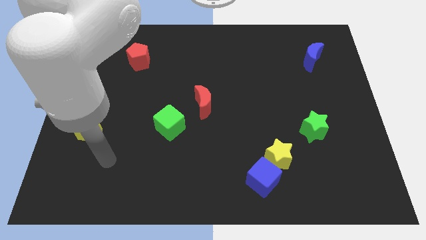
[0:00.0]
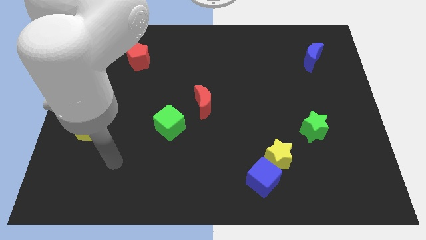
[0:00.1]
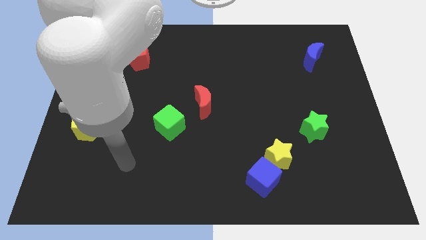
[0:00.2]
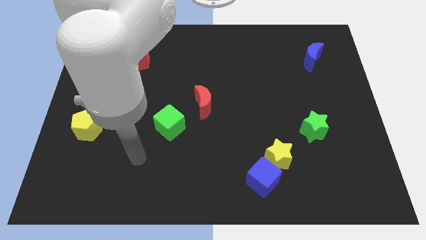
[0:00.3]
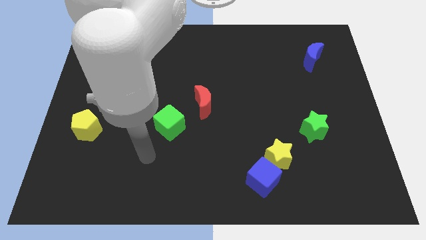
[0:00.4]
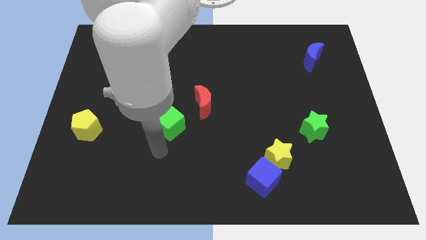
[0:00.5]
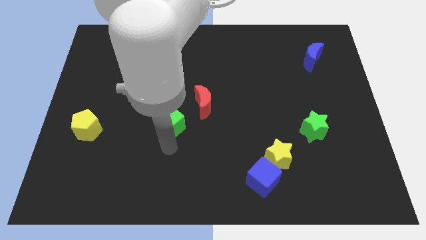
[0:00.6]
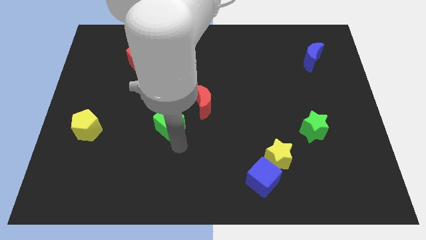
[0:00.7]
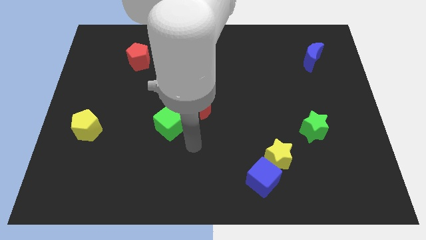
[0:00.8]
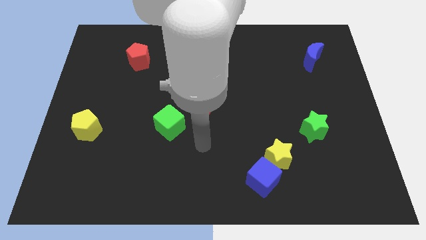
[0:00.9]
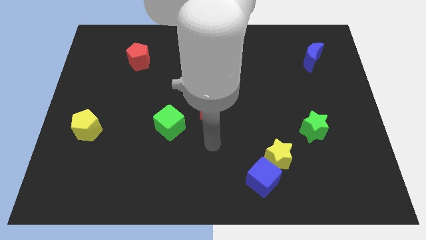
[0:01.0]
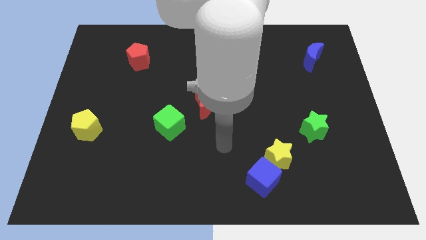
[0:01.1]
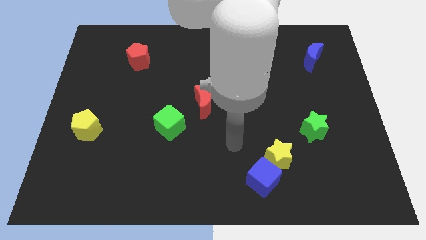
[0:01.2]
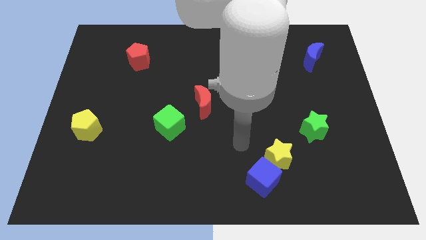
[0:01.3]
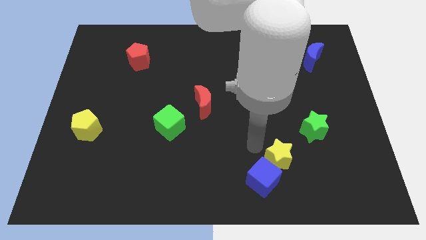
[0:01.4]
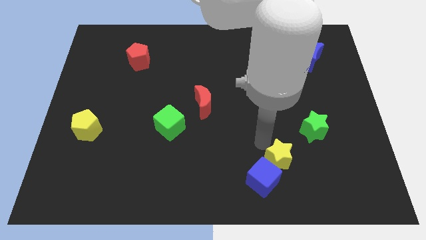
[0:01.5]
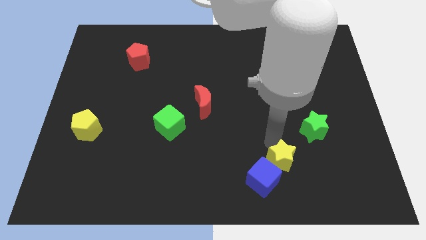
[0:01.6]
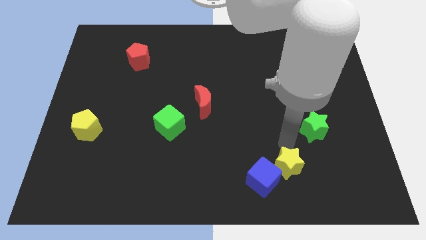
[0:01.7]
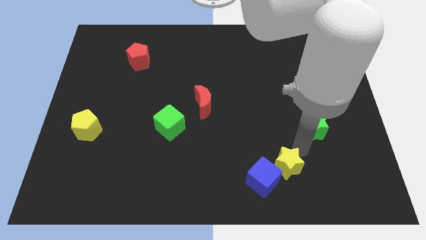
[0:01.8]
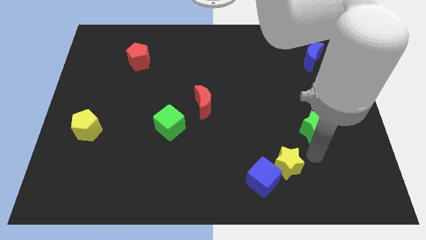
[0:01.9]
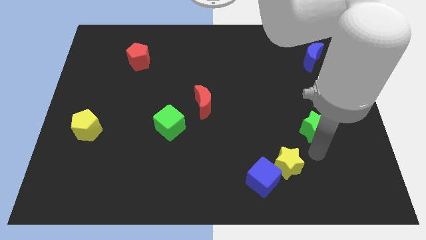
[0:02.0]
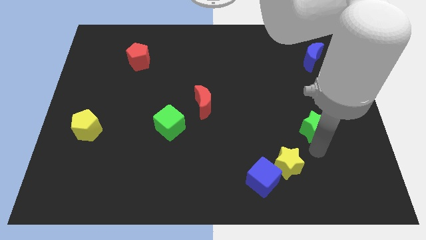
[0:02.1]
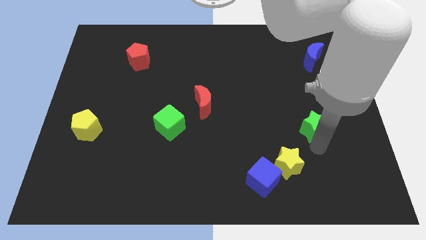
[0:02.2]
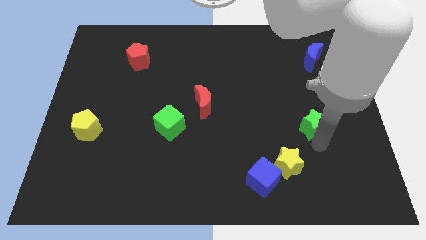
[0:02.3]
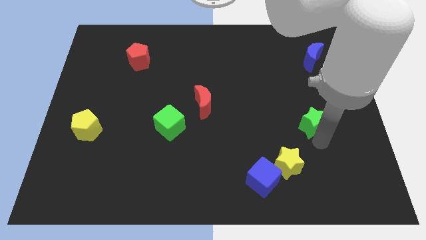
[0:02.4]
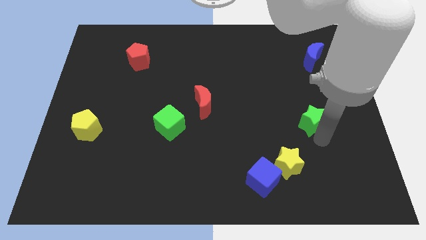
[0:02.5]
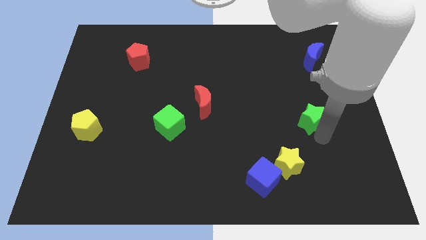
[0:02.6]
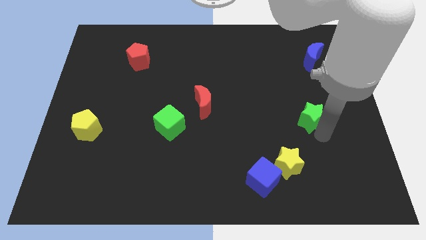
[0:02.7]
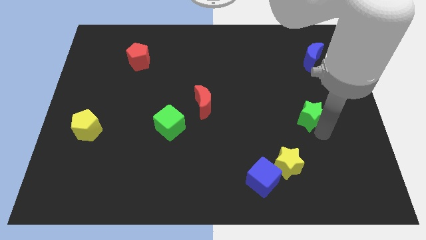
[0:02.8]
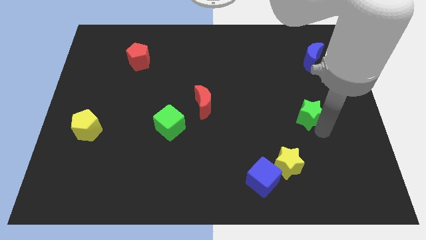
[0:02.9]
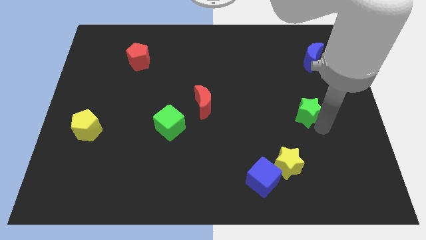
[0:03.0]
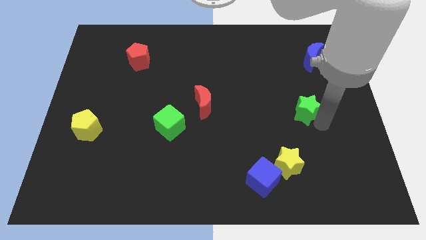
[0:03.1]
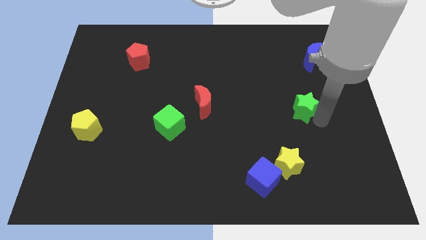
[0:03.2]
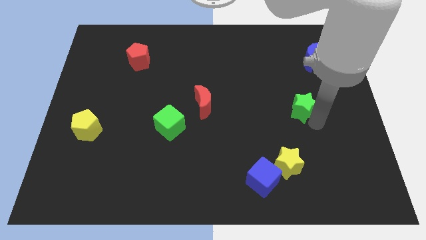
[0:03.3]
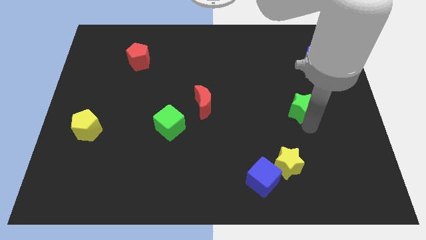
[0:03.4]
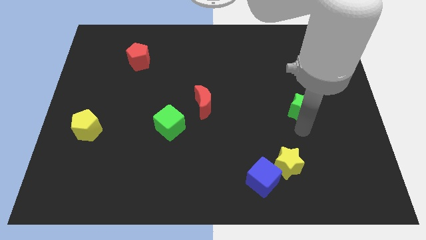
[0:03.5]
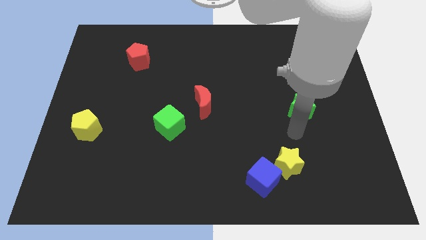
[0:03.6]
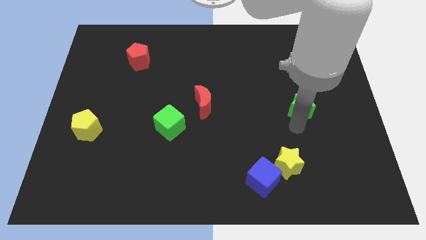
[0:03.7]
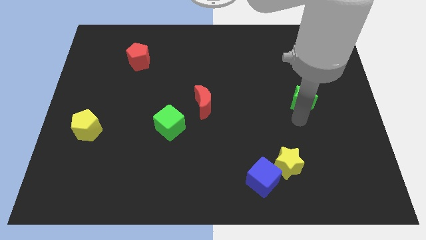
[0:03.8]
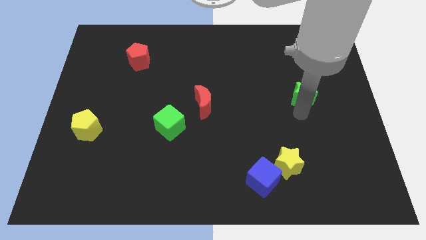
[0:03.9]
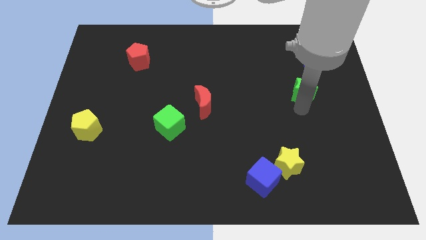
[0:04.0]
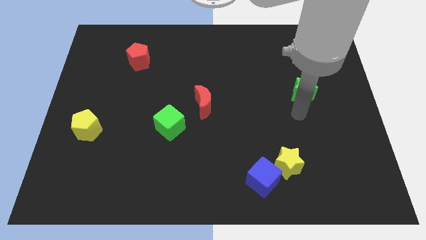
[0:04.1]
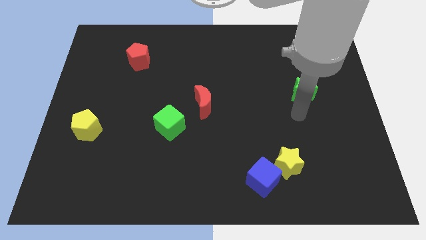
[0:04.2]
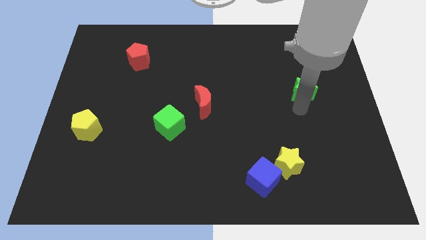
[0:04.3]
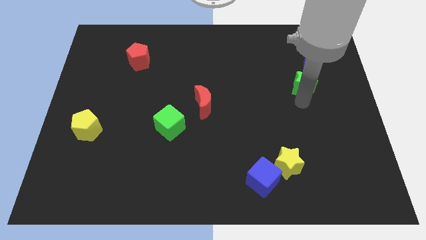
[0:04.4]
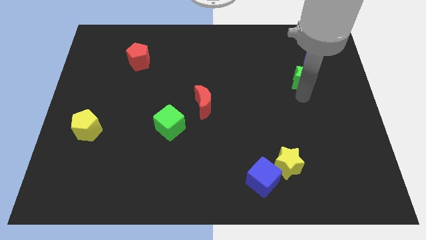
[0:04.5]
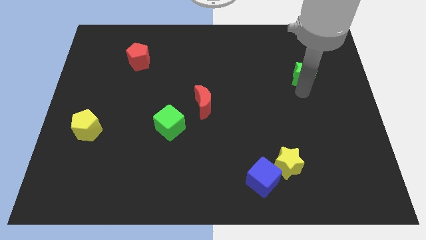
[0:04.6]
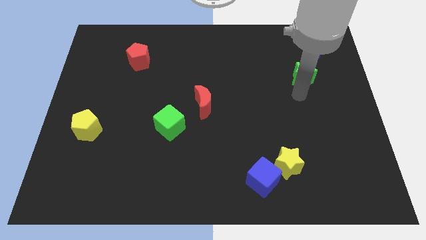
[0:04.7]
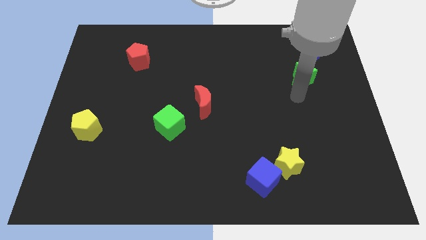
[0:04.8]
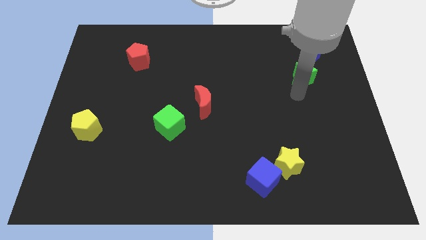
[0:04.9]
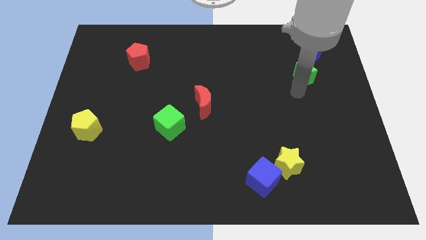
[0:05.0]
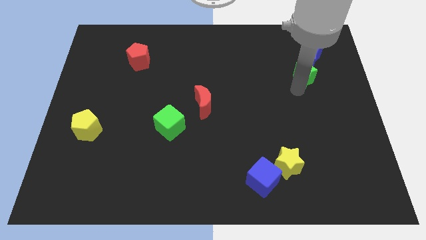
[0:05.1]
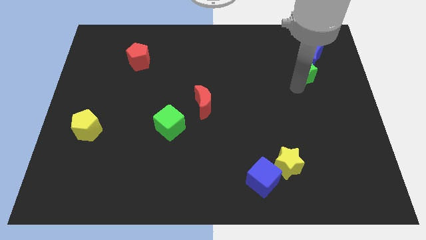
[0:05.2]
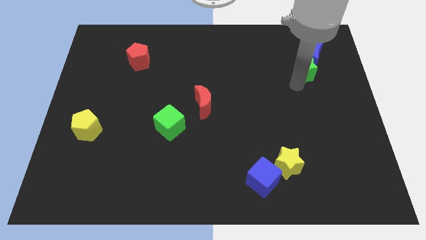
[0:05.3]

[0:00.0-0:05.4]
slide the green star towards the blue moon

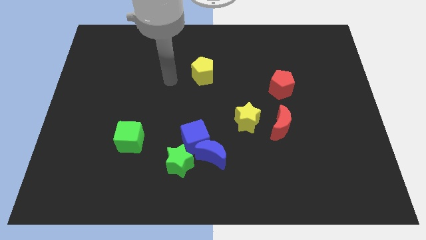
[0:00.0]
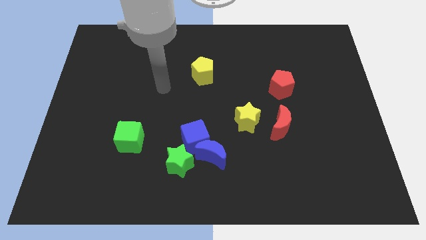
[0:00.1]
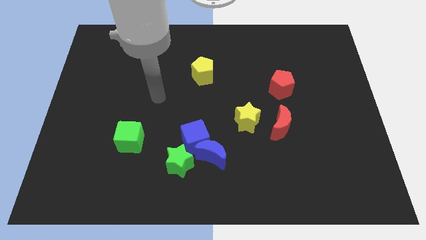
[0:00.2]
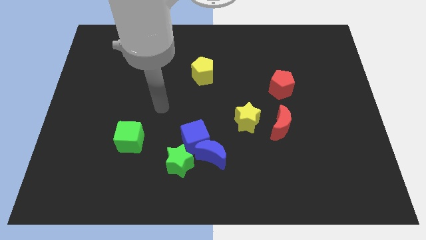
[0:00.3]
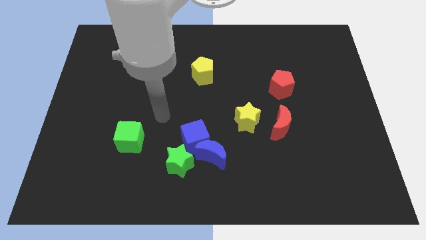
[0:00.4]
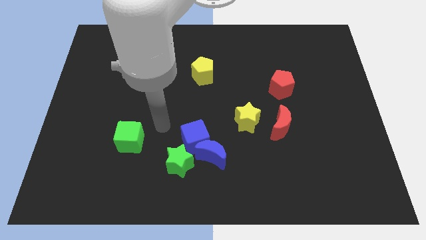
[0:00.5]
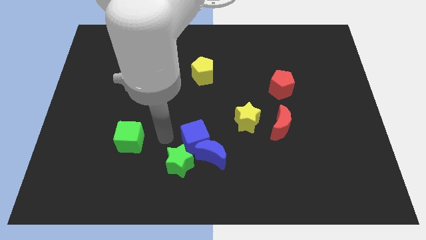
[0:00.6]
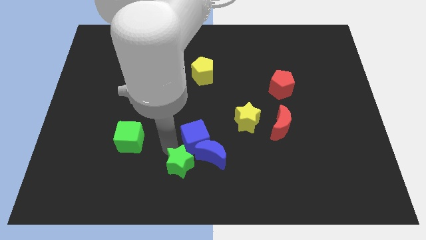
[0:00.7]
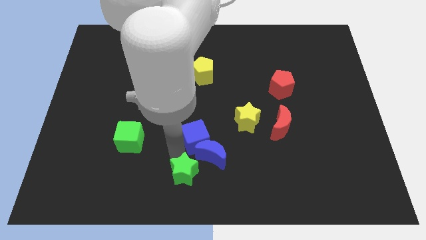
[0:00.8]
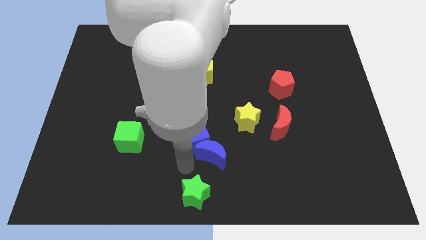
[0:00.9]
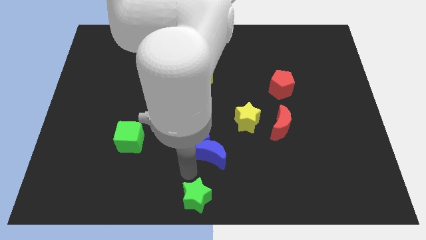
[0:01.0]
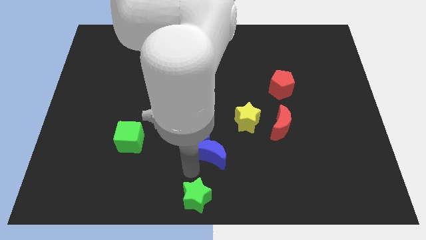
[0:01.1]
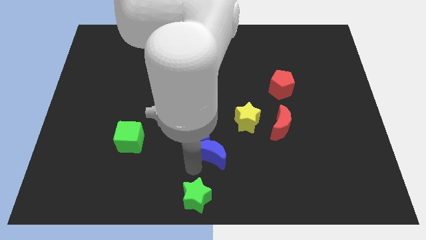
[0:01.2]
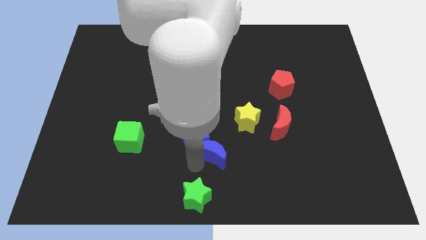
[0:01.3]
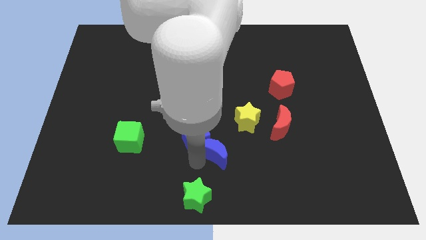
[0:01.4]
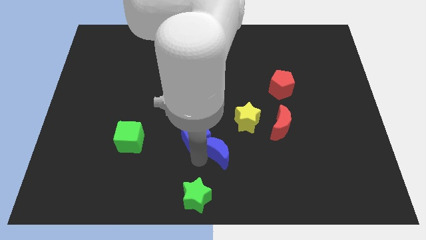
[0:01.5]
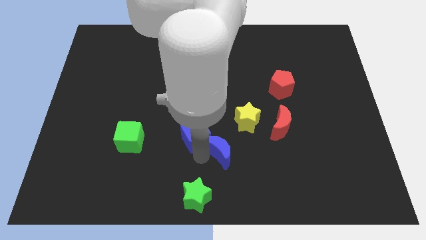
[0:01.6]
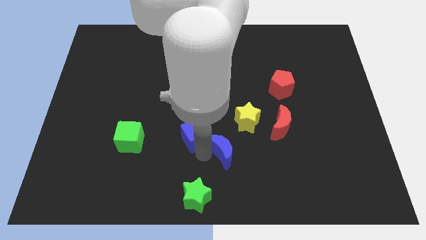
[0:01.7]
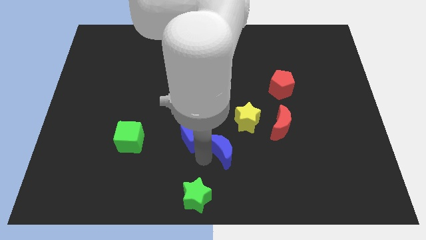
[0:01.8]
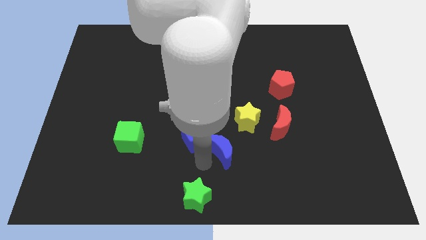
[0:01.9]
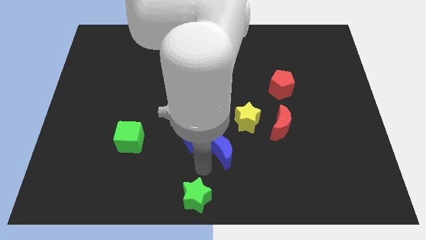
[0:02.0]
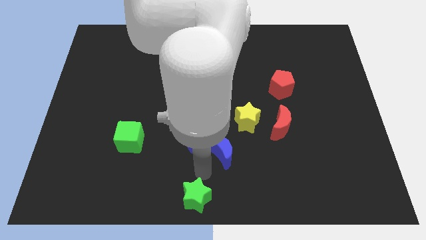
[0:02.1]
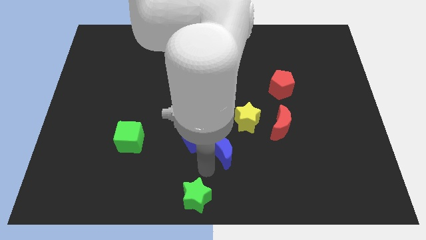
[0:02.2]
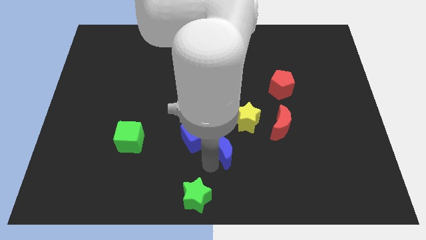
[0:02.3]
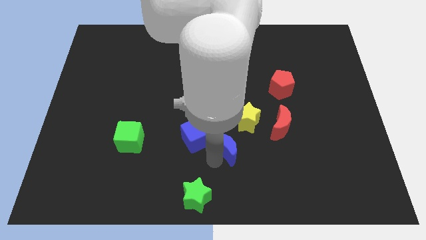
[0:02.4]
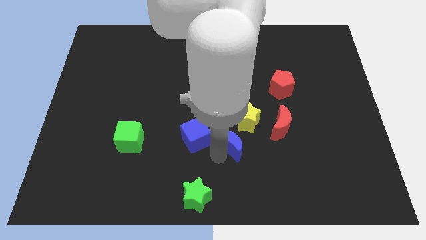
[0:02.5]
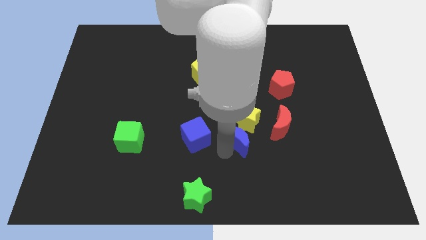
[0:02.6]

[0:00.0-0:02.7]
move the blue moon towards the yellow star
